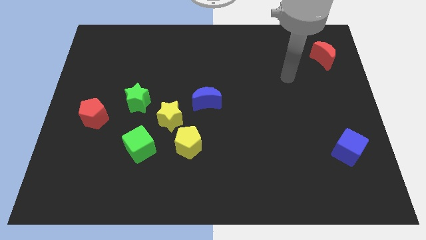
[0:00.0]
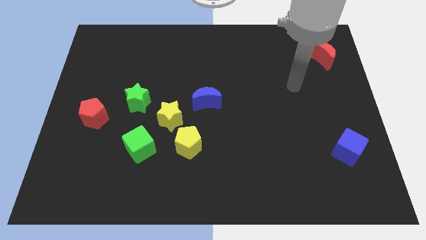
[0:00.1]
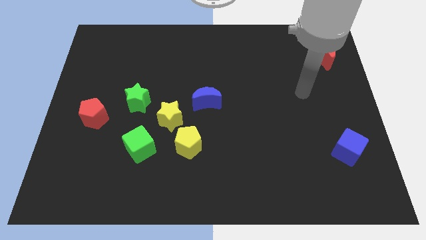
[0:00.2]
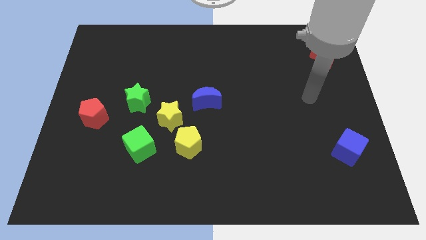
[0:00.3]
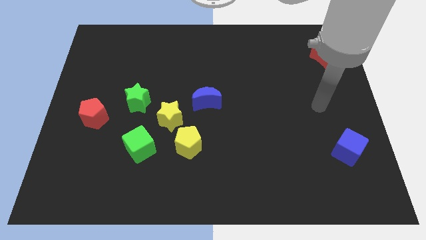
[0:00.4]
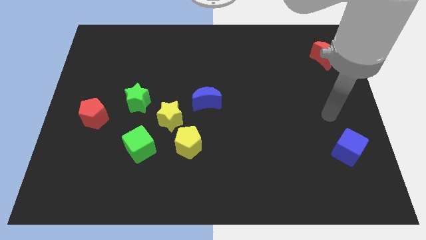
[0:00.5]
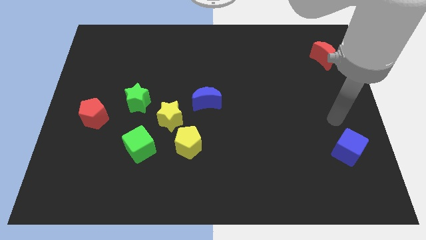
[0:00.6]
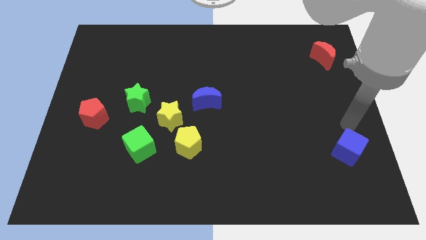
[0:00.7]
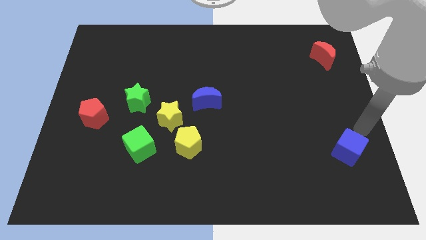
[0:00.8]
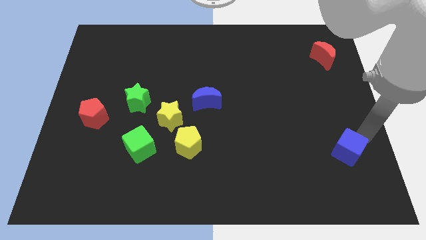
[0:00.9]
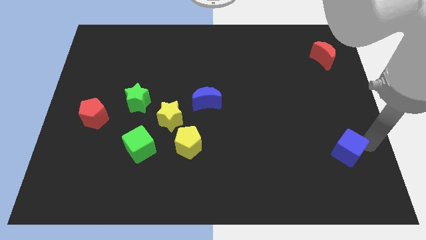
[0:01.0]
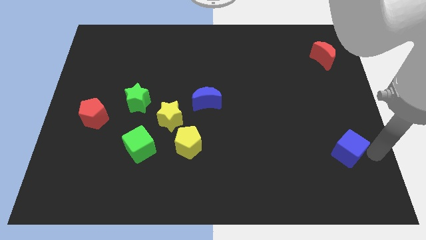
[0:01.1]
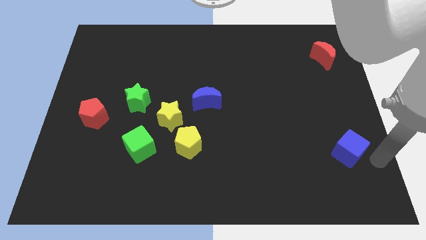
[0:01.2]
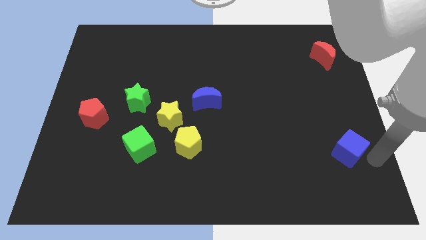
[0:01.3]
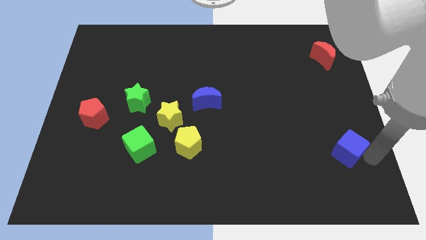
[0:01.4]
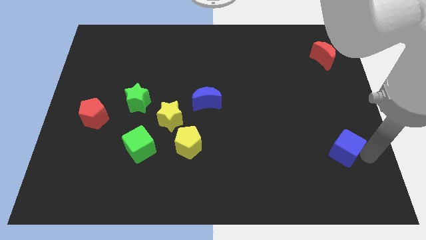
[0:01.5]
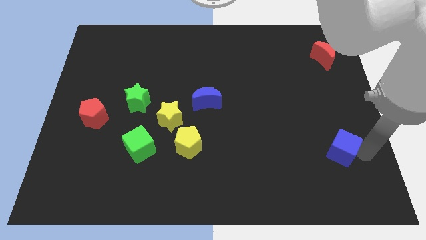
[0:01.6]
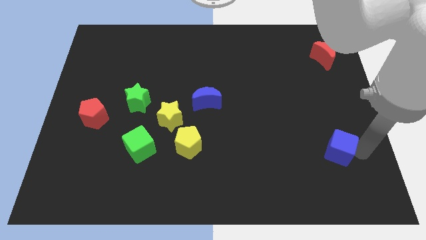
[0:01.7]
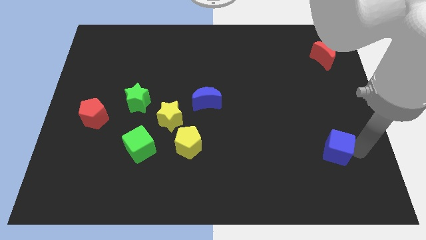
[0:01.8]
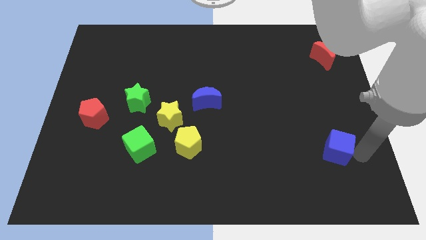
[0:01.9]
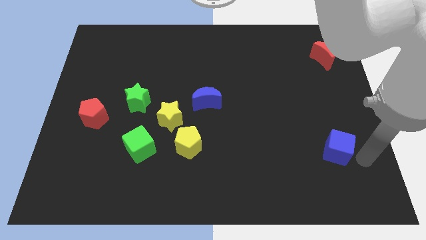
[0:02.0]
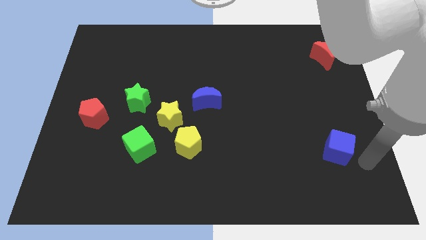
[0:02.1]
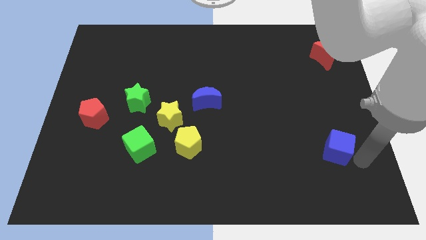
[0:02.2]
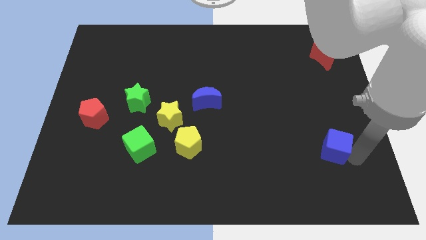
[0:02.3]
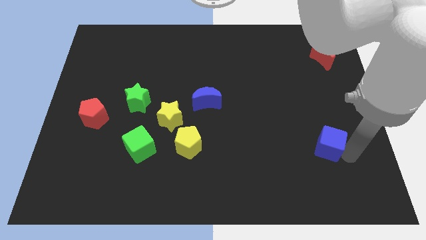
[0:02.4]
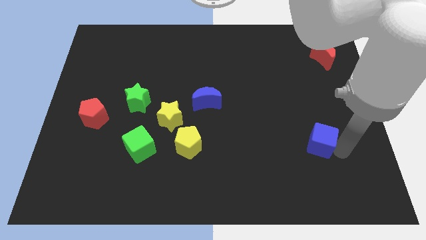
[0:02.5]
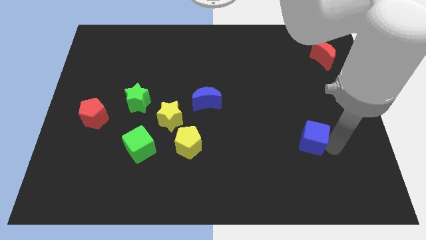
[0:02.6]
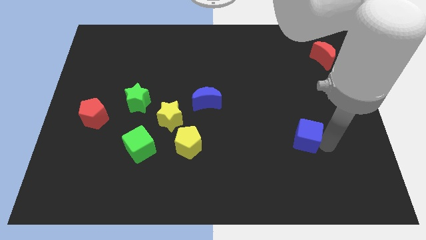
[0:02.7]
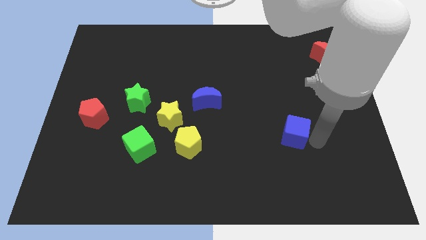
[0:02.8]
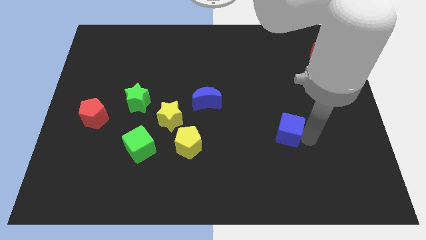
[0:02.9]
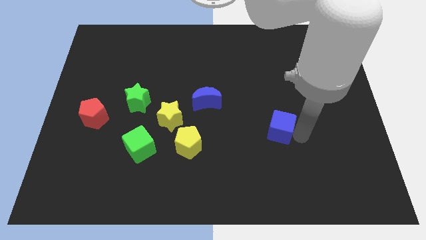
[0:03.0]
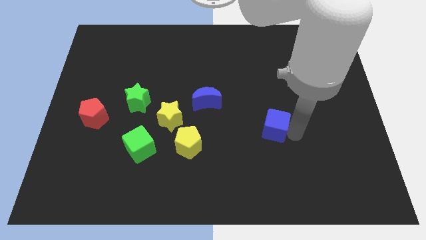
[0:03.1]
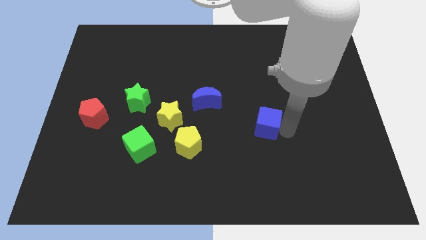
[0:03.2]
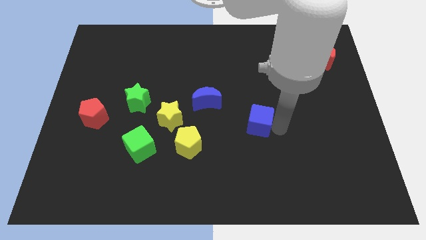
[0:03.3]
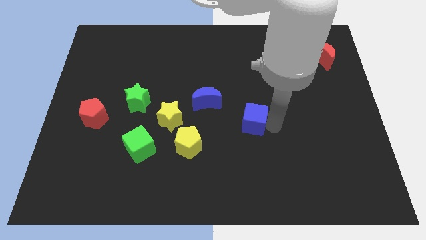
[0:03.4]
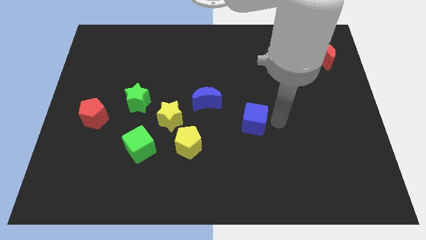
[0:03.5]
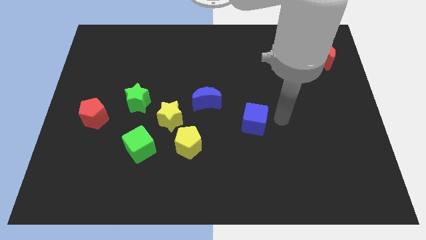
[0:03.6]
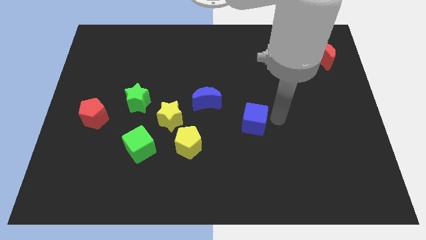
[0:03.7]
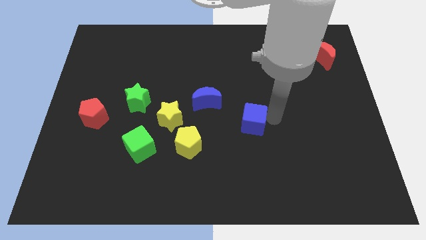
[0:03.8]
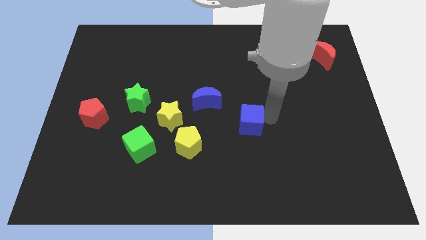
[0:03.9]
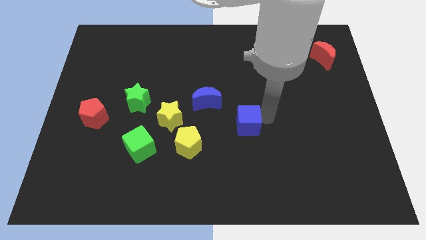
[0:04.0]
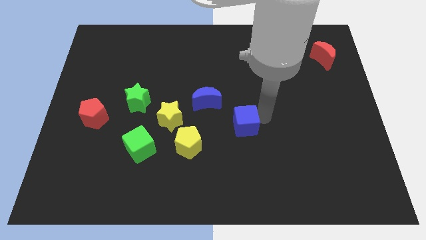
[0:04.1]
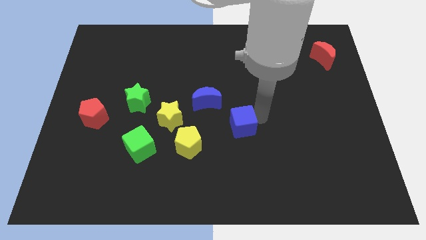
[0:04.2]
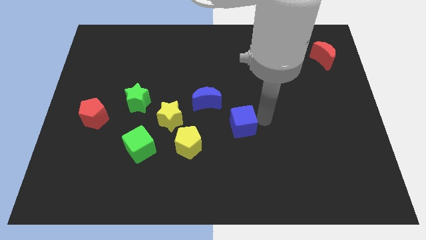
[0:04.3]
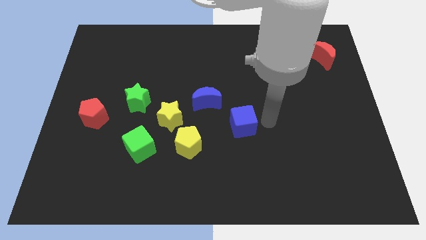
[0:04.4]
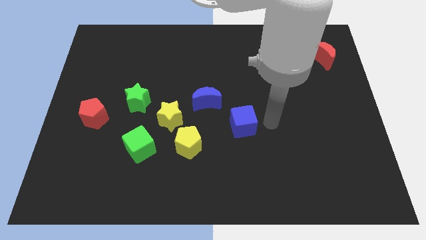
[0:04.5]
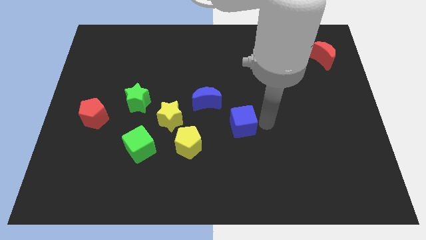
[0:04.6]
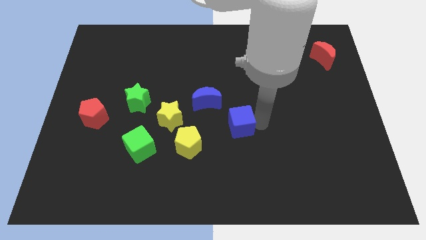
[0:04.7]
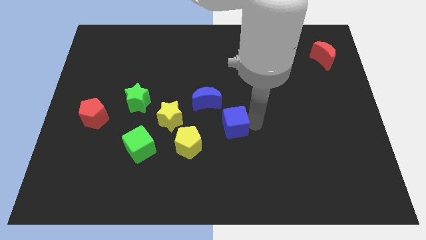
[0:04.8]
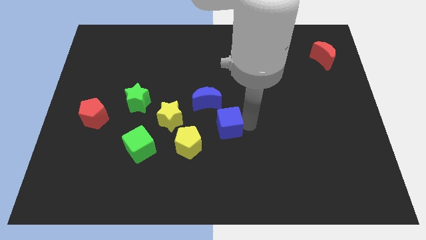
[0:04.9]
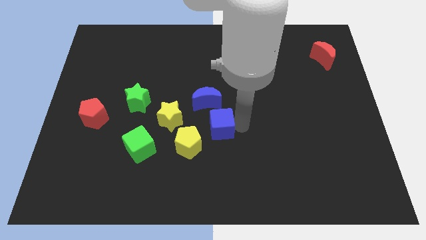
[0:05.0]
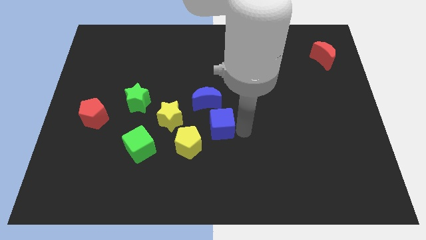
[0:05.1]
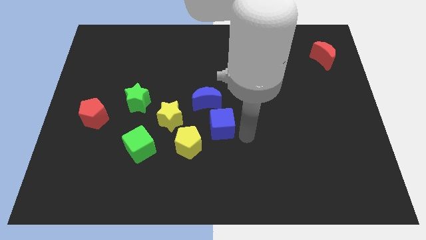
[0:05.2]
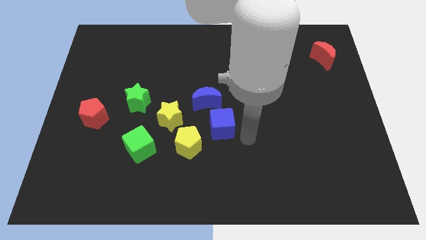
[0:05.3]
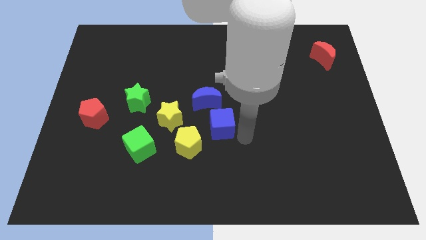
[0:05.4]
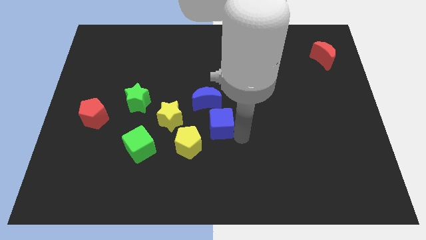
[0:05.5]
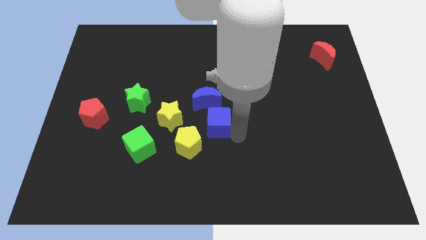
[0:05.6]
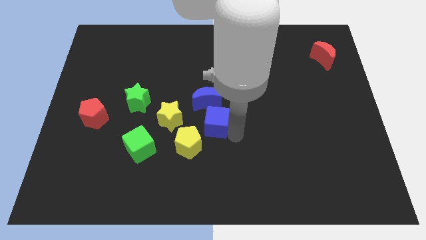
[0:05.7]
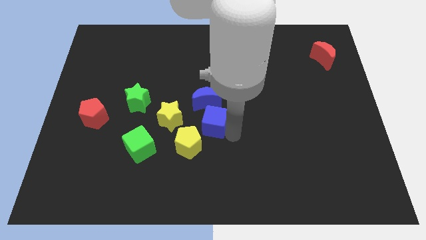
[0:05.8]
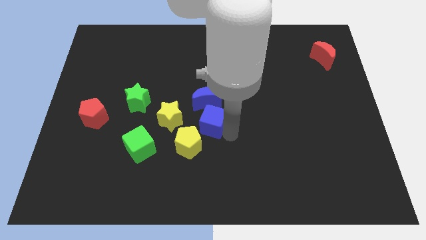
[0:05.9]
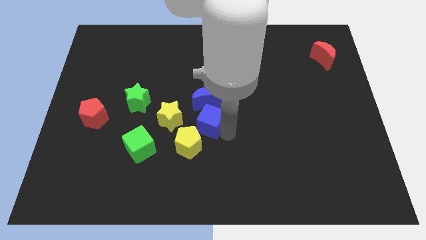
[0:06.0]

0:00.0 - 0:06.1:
slide the blue cube to the top of the yellow pentagon
